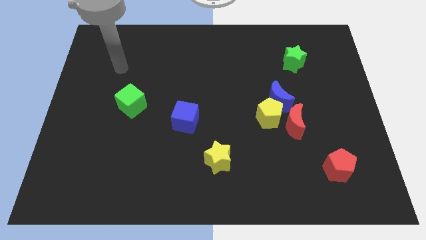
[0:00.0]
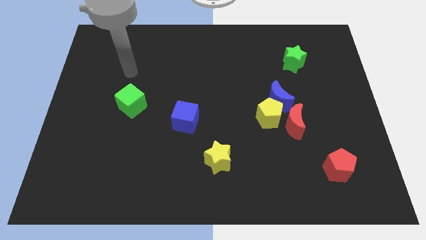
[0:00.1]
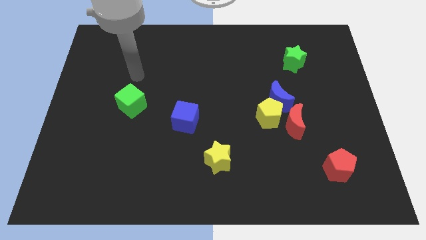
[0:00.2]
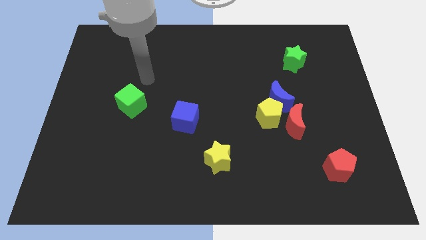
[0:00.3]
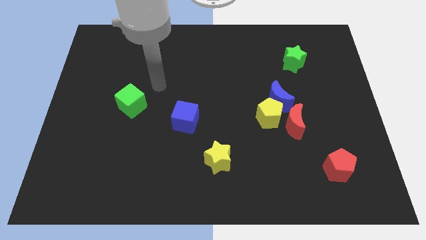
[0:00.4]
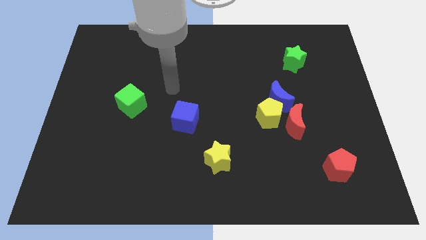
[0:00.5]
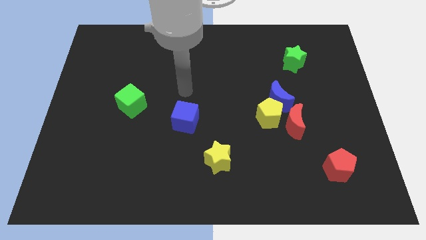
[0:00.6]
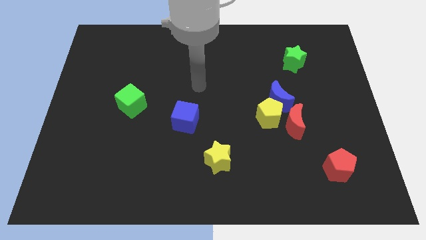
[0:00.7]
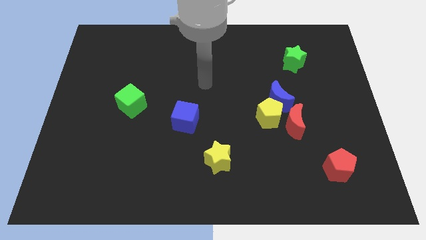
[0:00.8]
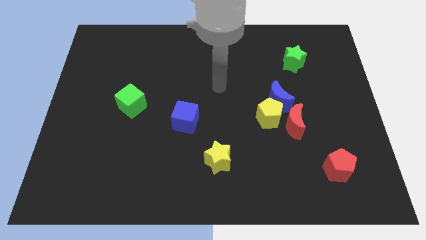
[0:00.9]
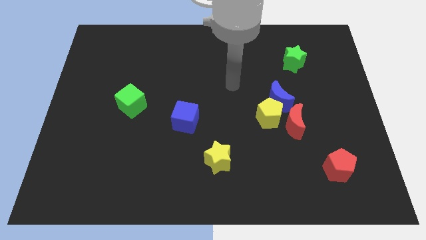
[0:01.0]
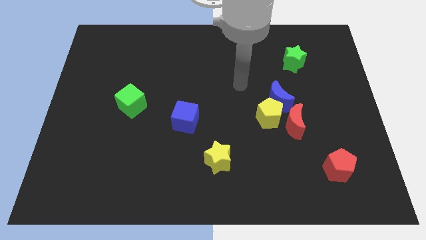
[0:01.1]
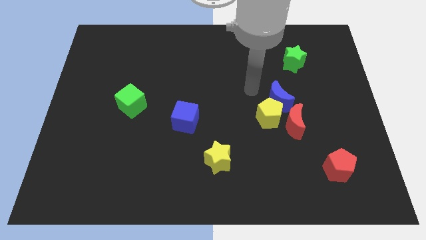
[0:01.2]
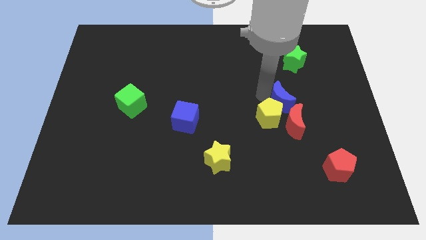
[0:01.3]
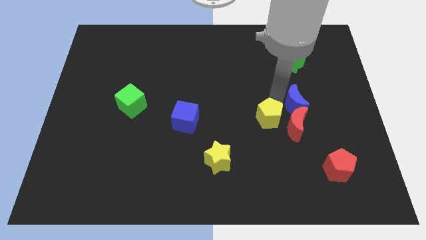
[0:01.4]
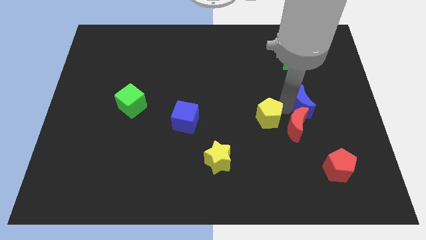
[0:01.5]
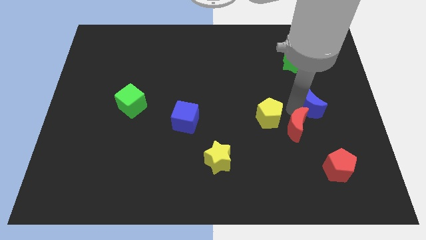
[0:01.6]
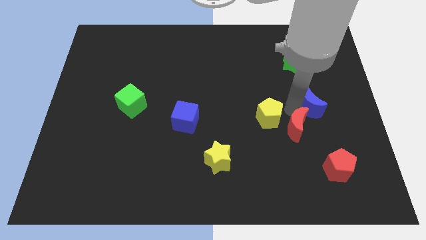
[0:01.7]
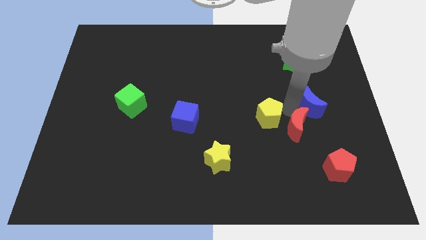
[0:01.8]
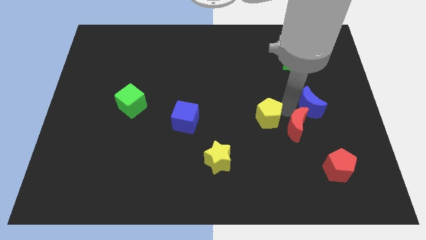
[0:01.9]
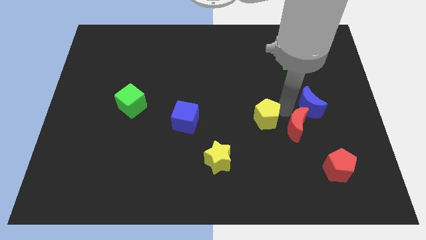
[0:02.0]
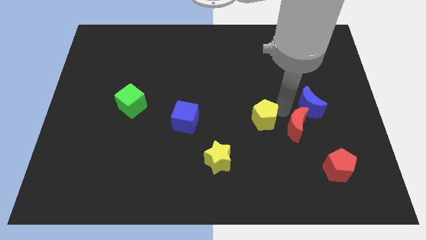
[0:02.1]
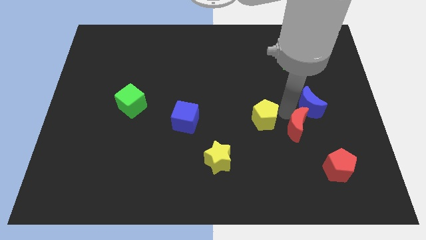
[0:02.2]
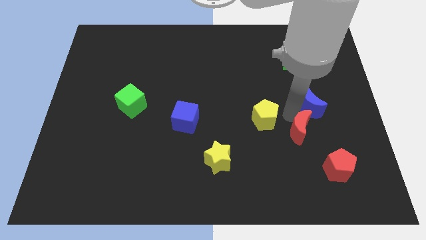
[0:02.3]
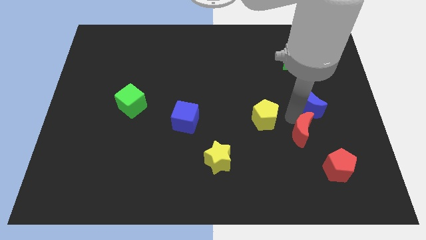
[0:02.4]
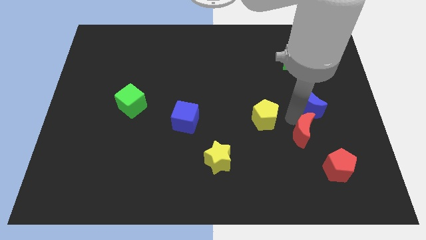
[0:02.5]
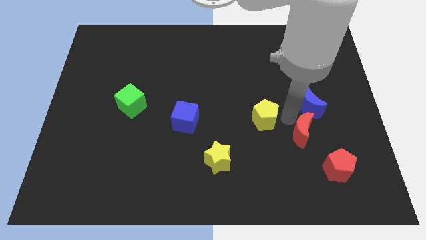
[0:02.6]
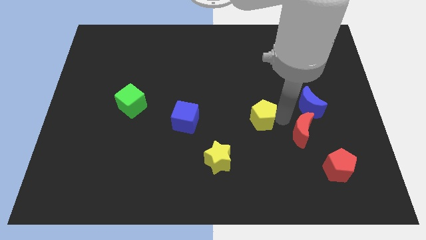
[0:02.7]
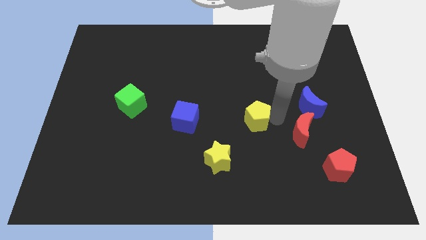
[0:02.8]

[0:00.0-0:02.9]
pull the yellow pentagon apart from the blue moon and red moon

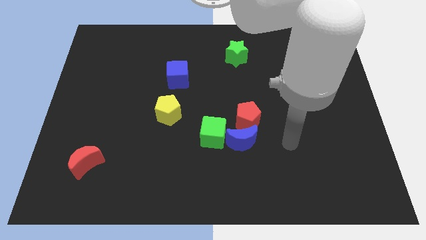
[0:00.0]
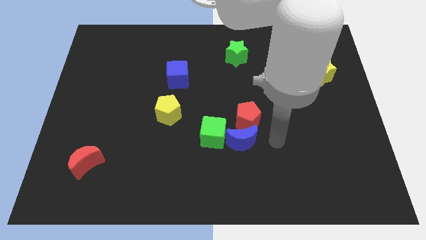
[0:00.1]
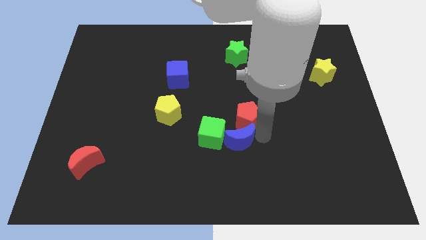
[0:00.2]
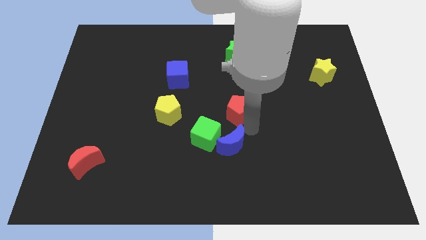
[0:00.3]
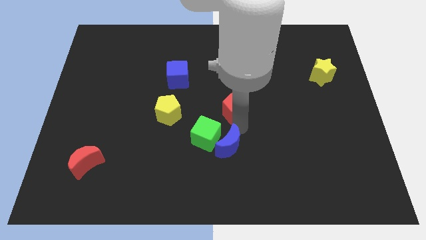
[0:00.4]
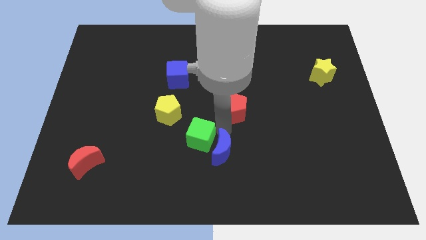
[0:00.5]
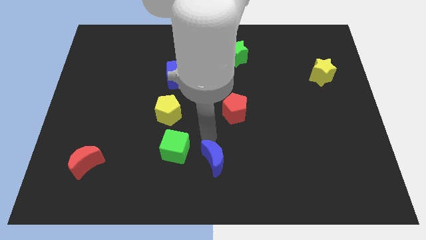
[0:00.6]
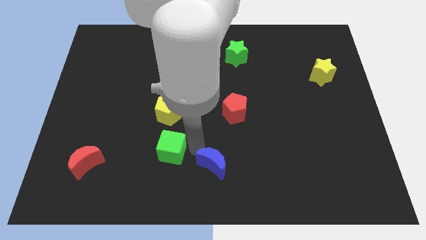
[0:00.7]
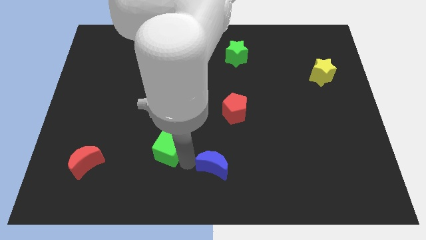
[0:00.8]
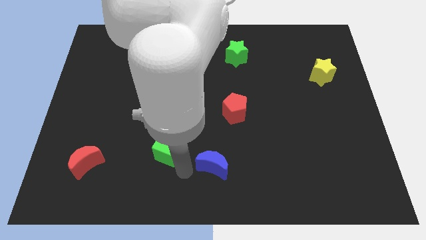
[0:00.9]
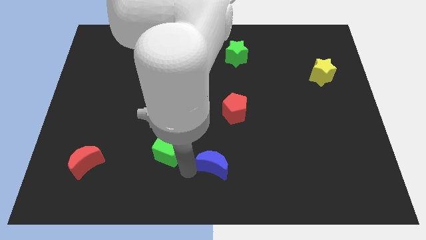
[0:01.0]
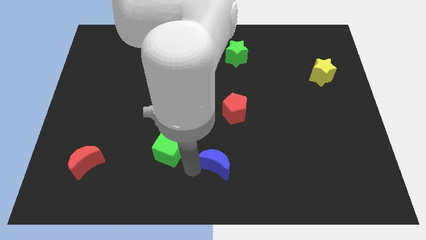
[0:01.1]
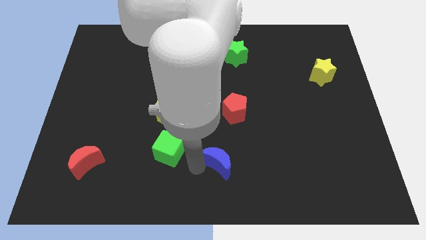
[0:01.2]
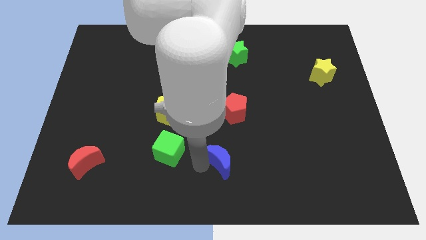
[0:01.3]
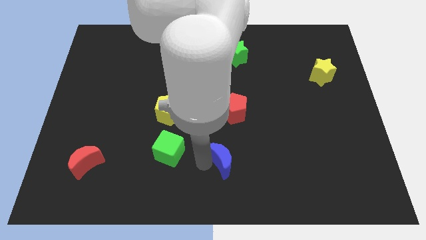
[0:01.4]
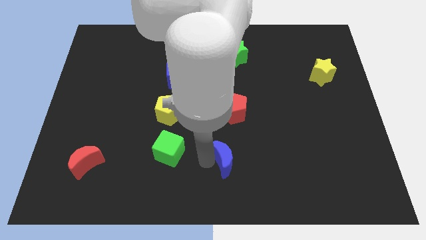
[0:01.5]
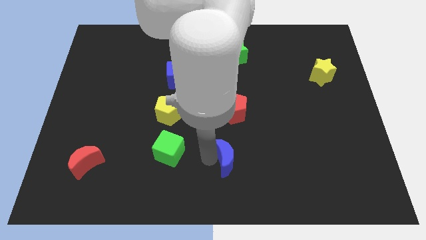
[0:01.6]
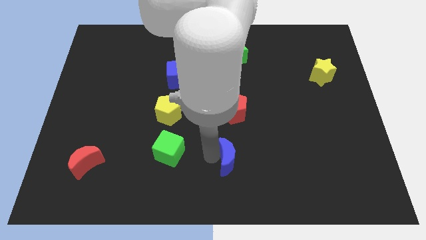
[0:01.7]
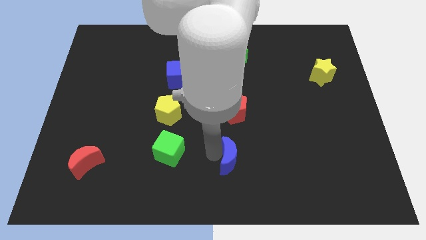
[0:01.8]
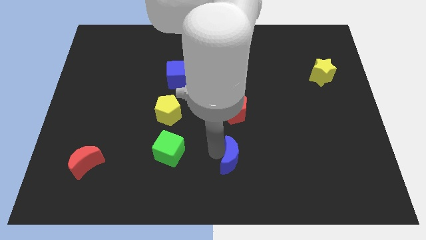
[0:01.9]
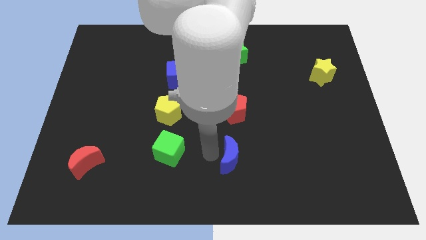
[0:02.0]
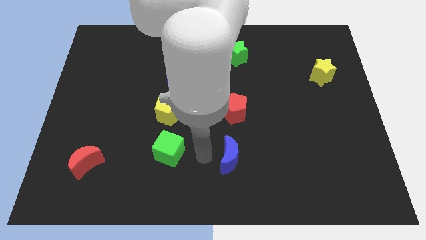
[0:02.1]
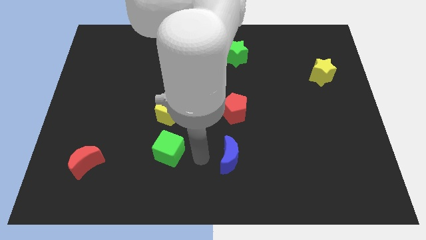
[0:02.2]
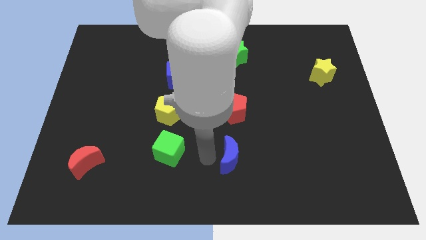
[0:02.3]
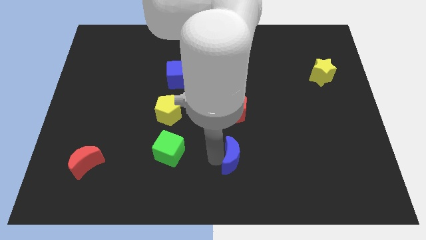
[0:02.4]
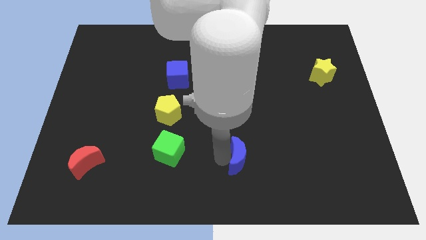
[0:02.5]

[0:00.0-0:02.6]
move the blue moon away from the red pentagon and green cube

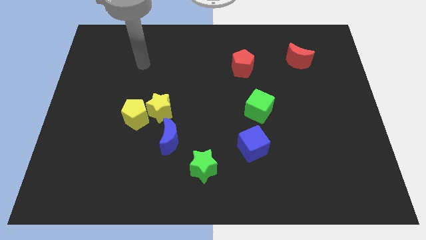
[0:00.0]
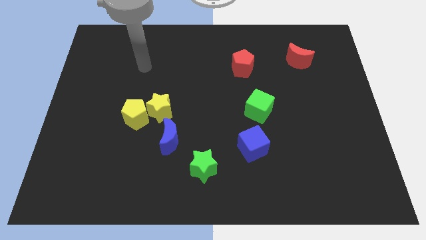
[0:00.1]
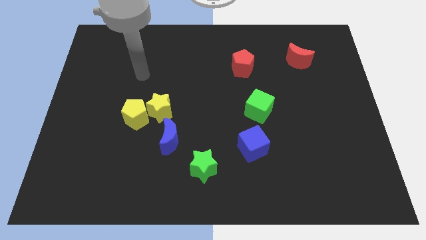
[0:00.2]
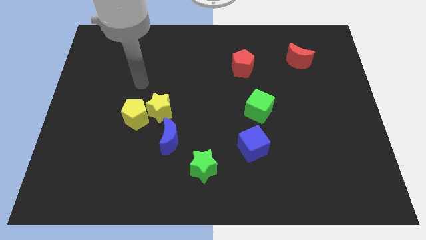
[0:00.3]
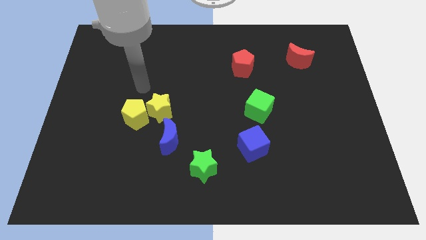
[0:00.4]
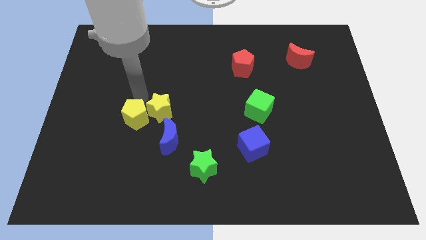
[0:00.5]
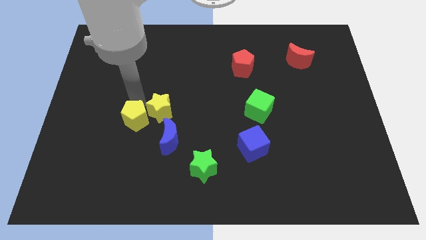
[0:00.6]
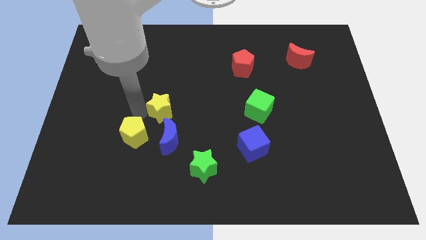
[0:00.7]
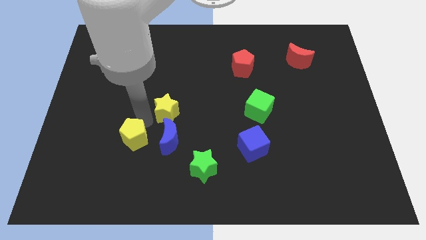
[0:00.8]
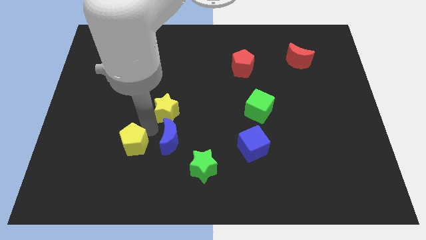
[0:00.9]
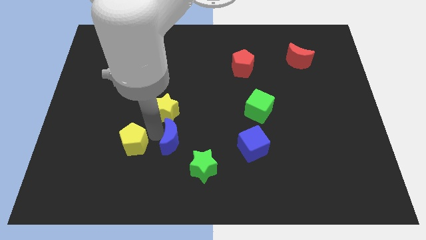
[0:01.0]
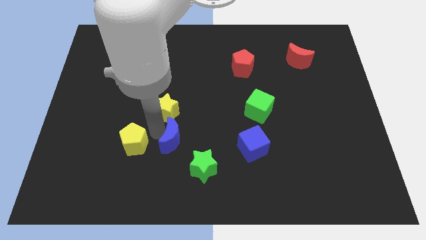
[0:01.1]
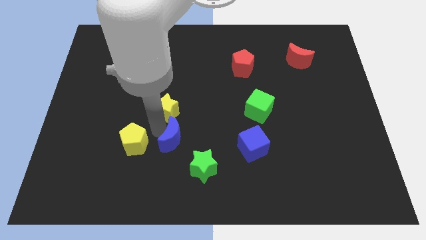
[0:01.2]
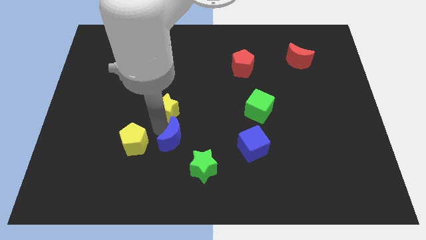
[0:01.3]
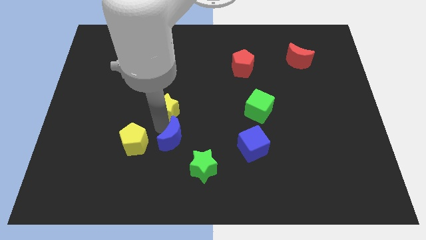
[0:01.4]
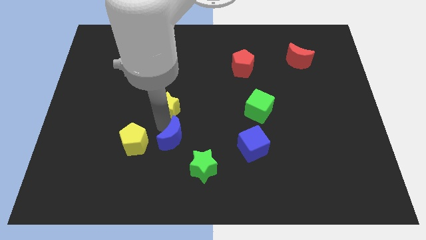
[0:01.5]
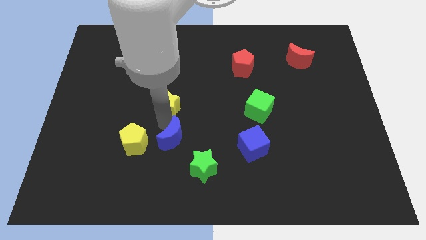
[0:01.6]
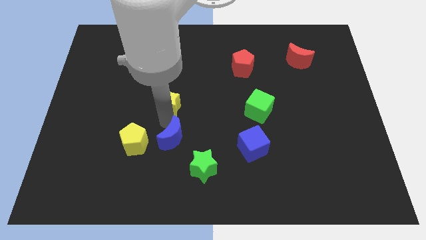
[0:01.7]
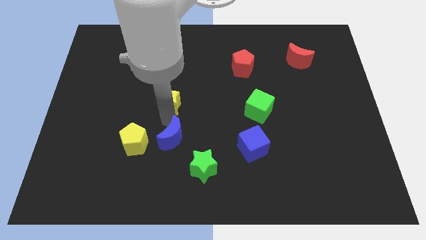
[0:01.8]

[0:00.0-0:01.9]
pull the yellow star apart from the yellow pentagon and blue moon

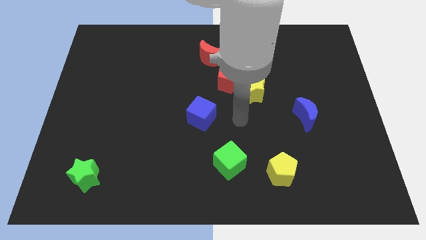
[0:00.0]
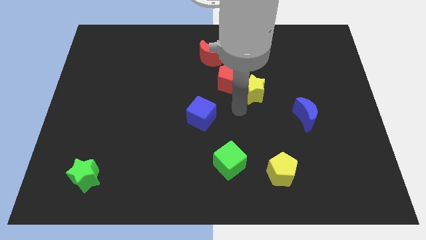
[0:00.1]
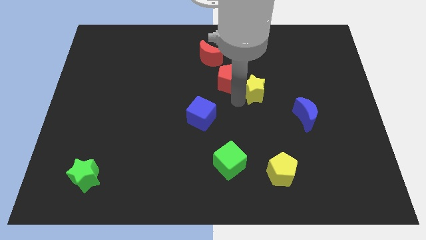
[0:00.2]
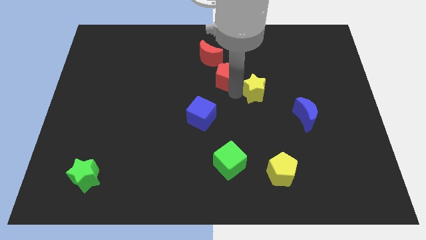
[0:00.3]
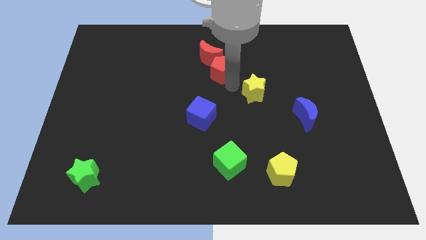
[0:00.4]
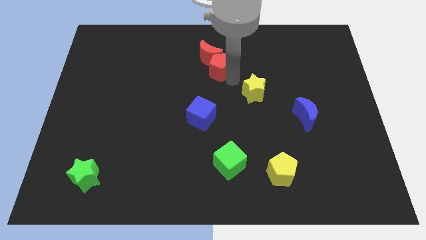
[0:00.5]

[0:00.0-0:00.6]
separate the yellow star from the red pentagon

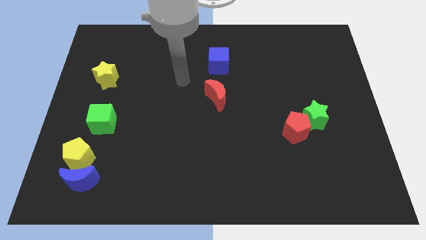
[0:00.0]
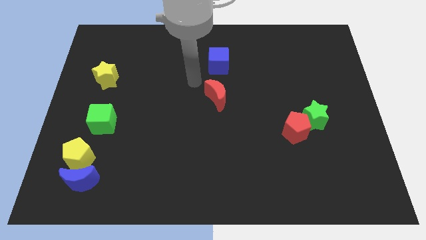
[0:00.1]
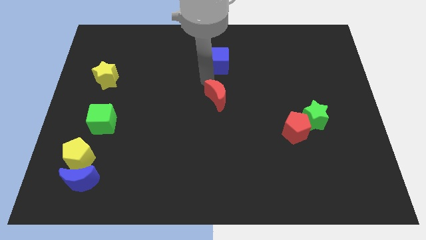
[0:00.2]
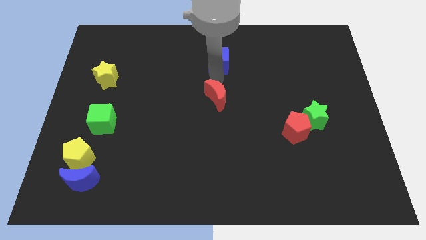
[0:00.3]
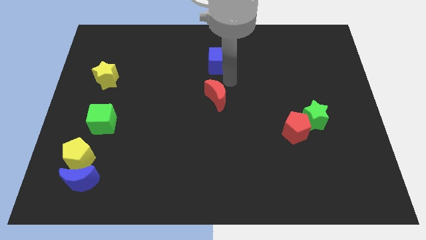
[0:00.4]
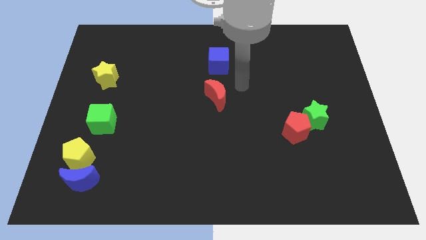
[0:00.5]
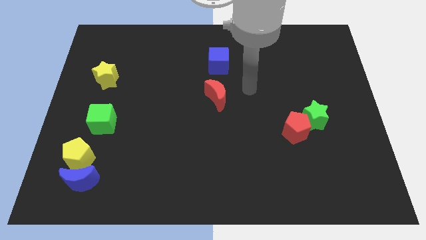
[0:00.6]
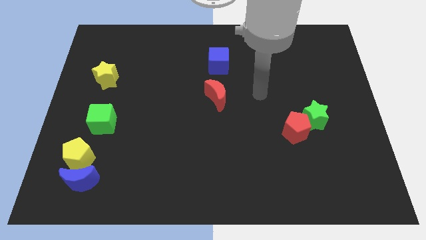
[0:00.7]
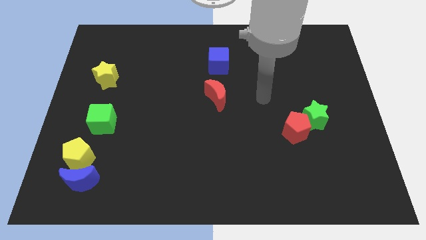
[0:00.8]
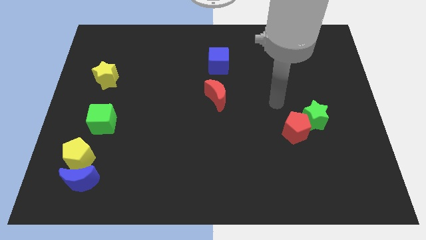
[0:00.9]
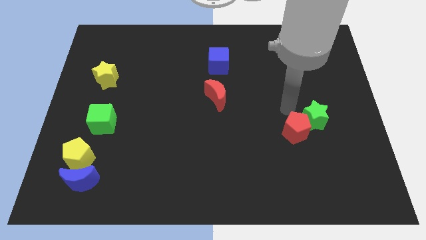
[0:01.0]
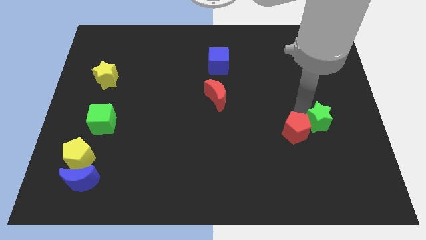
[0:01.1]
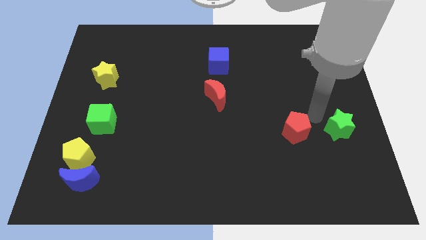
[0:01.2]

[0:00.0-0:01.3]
pull the red pentagon apart from the green star
